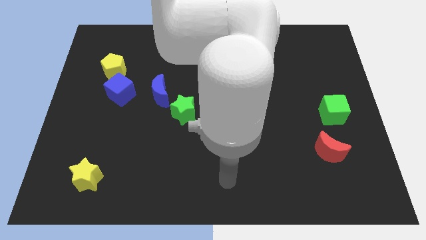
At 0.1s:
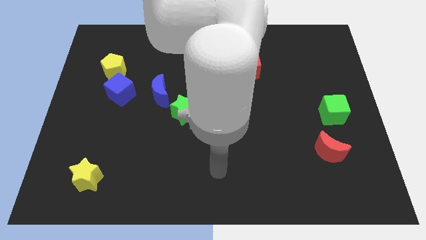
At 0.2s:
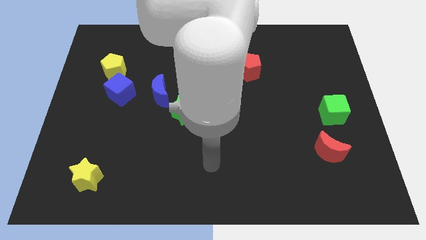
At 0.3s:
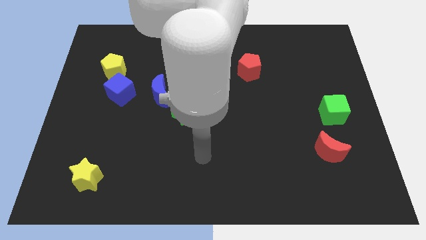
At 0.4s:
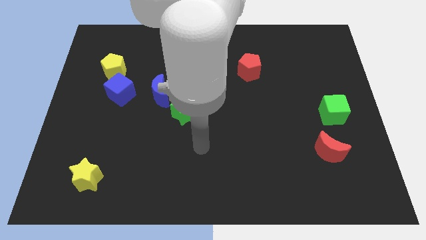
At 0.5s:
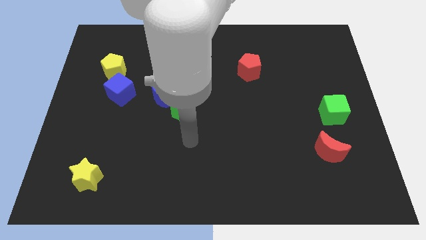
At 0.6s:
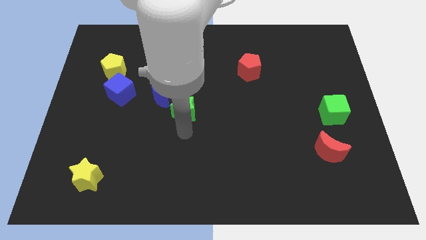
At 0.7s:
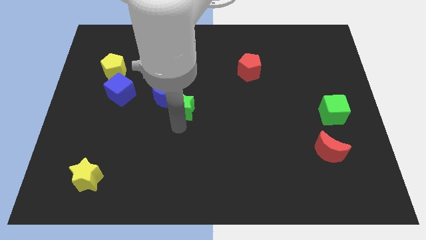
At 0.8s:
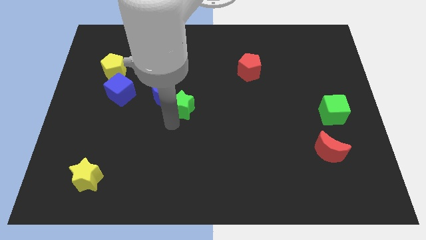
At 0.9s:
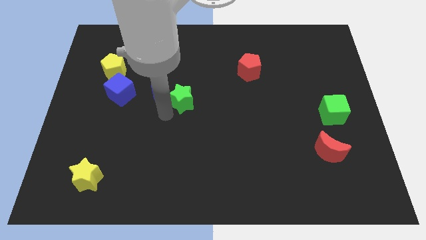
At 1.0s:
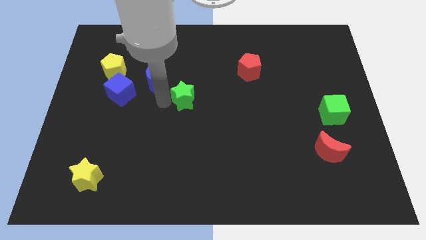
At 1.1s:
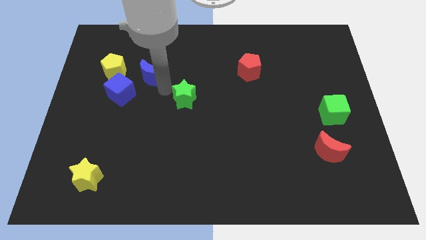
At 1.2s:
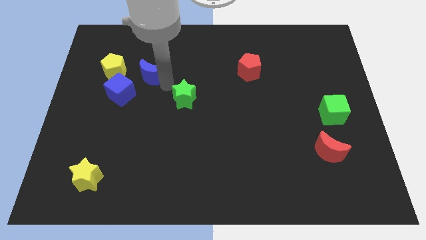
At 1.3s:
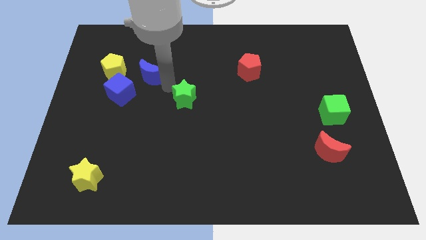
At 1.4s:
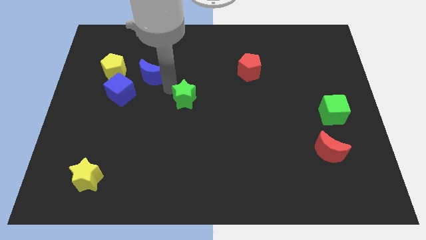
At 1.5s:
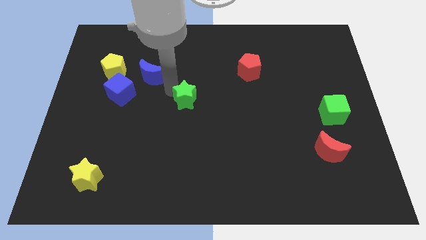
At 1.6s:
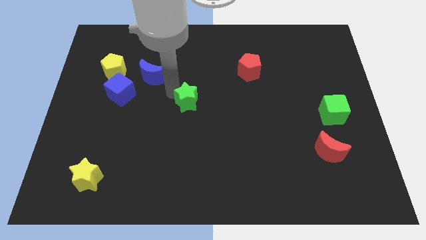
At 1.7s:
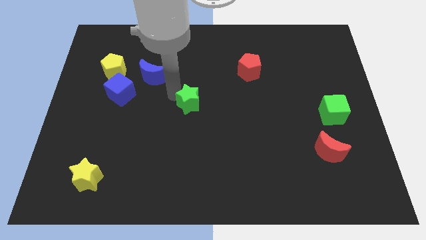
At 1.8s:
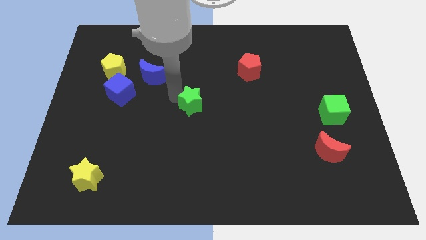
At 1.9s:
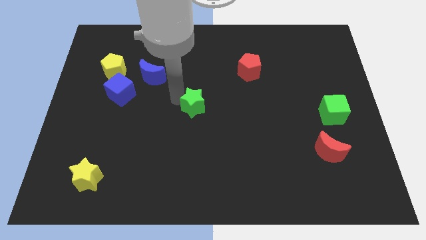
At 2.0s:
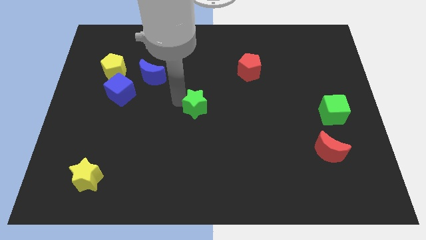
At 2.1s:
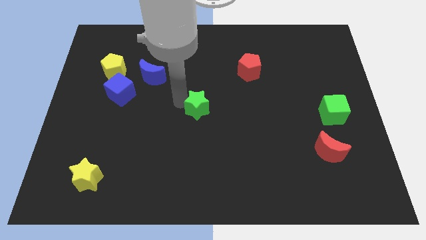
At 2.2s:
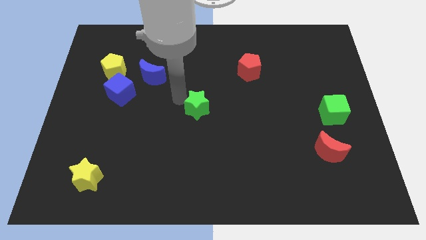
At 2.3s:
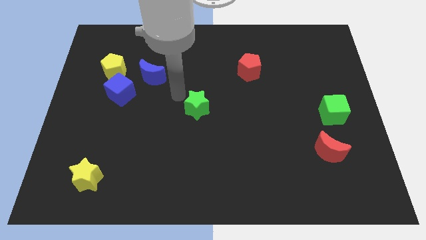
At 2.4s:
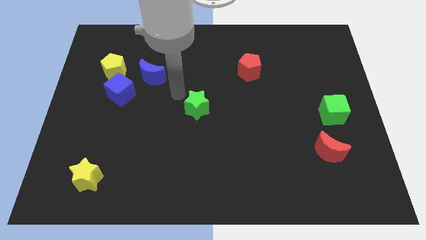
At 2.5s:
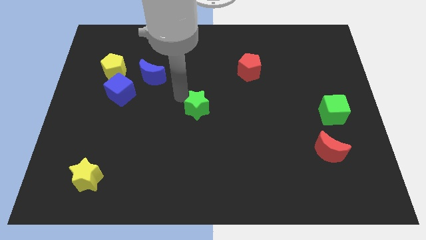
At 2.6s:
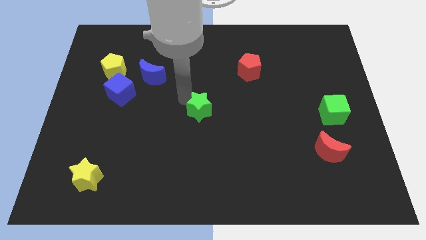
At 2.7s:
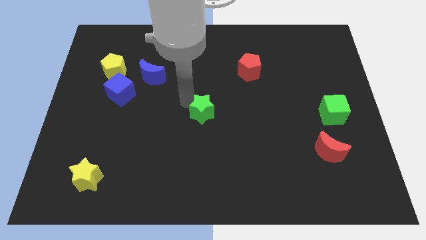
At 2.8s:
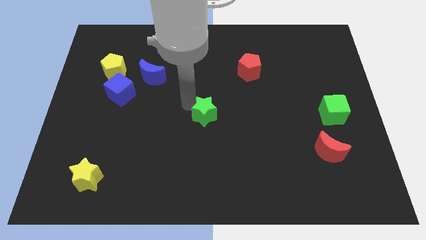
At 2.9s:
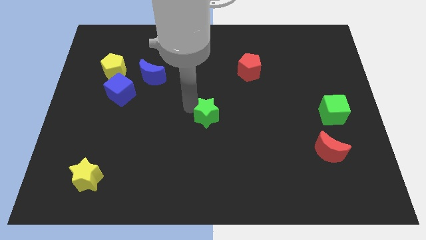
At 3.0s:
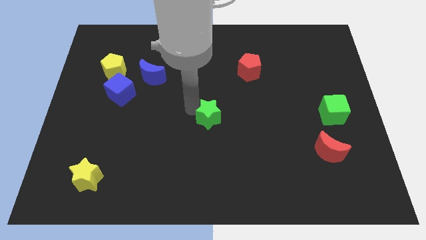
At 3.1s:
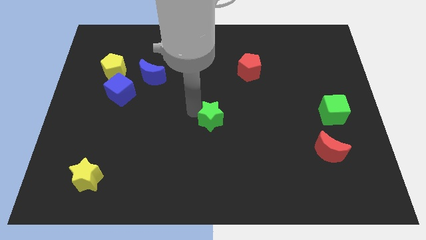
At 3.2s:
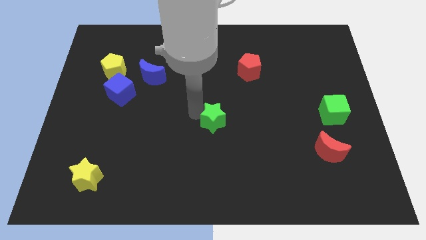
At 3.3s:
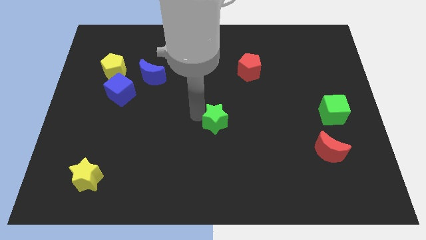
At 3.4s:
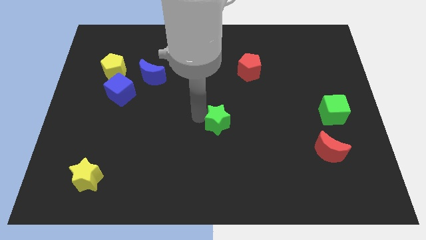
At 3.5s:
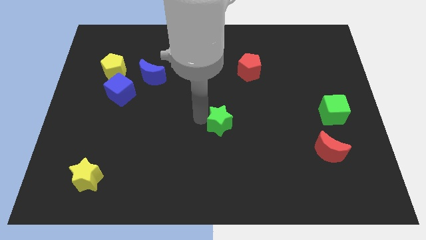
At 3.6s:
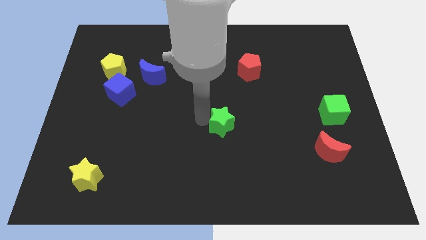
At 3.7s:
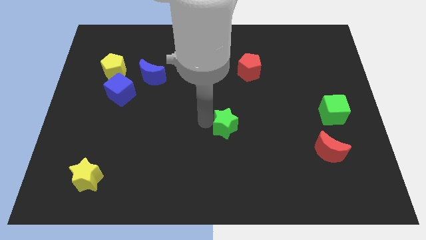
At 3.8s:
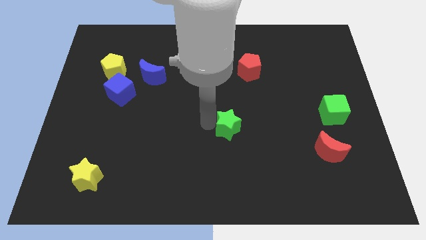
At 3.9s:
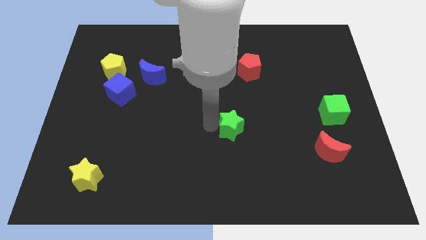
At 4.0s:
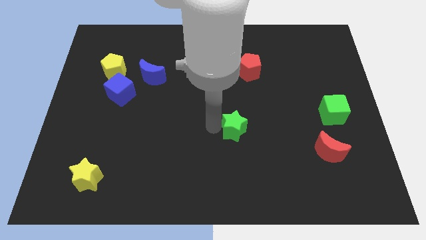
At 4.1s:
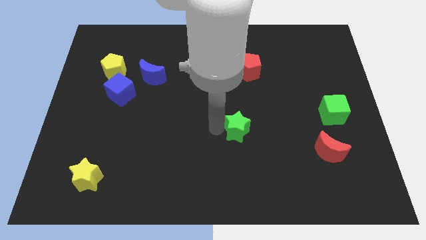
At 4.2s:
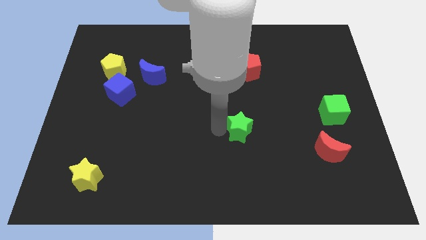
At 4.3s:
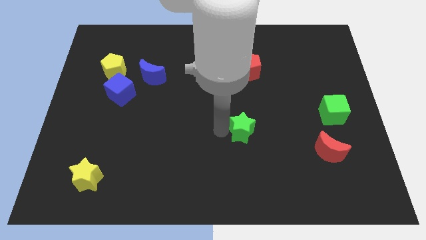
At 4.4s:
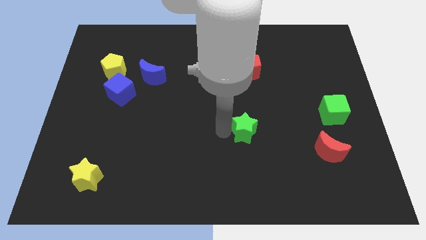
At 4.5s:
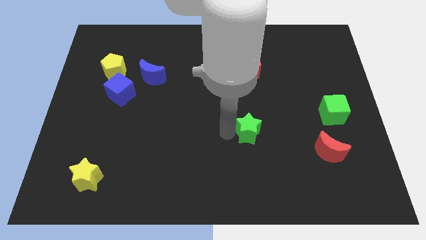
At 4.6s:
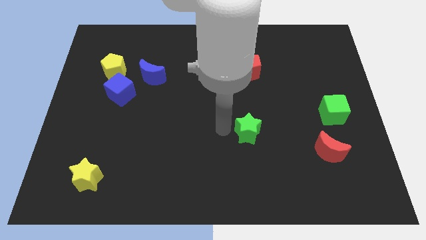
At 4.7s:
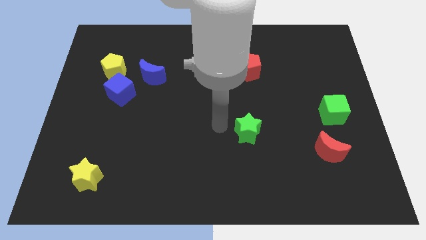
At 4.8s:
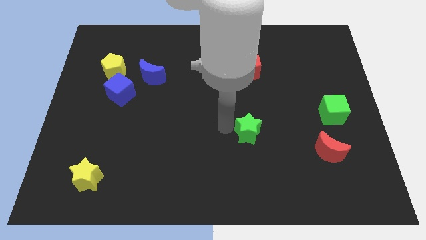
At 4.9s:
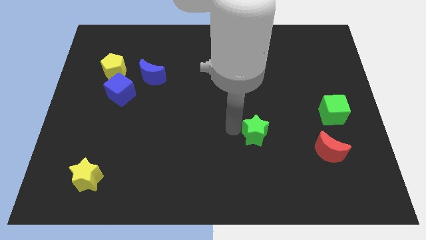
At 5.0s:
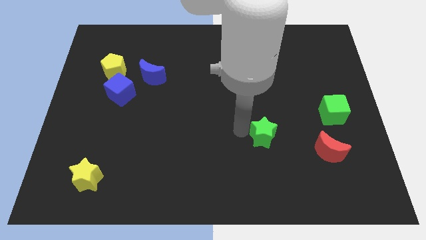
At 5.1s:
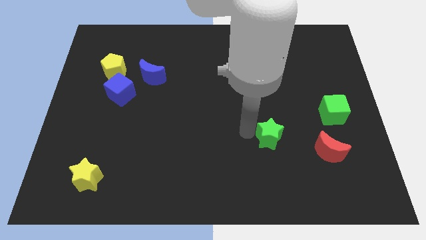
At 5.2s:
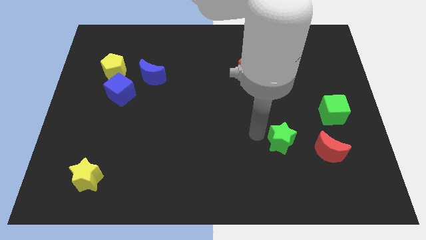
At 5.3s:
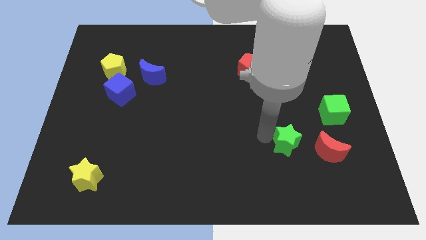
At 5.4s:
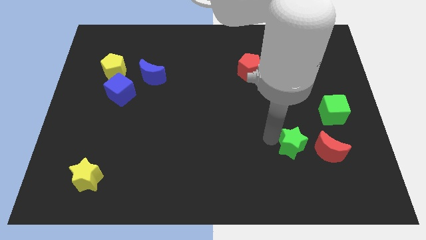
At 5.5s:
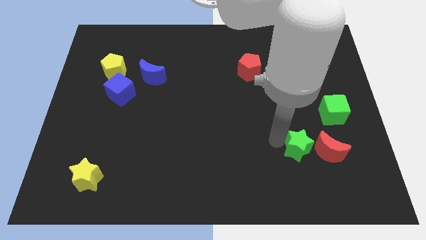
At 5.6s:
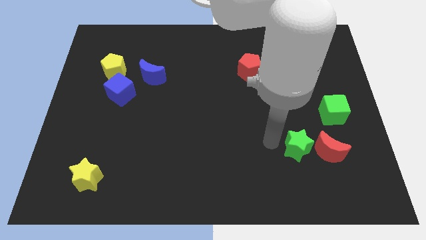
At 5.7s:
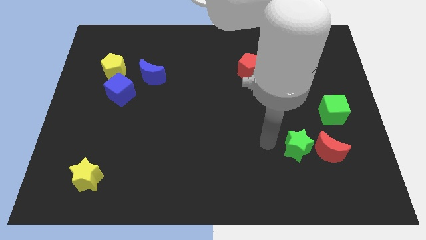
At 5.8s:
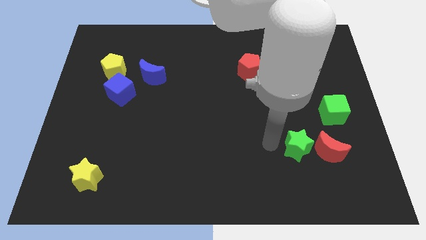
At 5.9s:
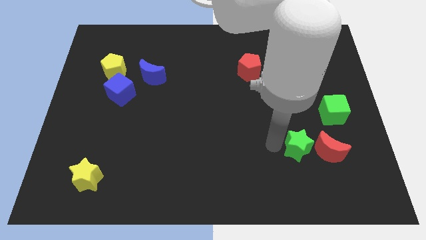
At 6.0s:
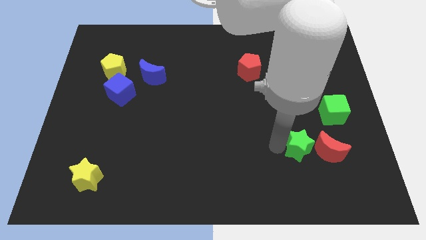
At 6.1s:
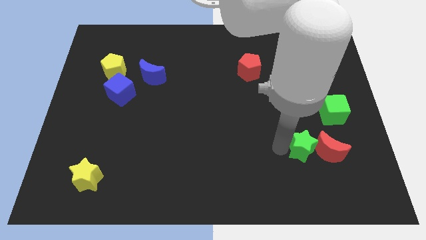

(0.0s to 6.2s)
push the green star to the red moon
